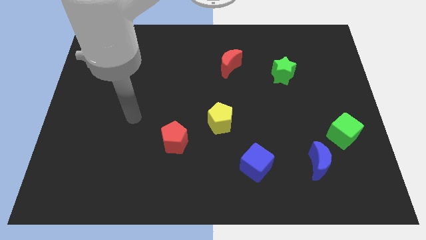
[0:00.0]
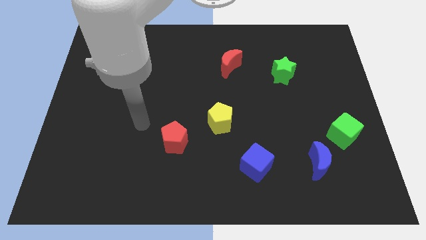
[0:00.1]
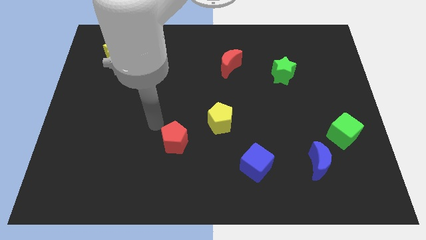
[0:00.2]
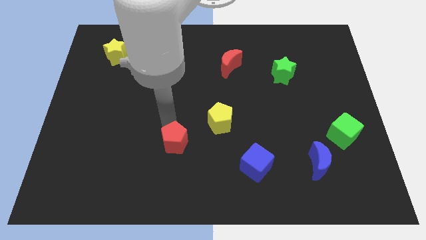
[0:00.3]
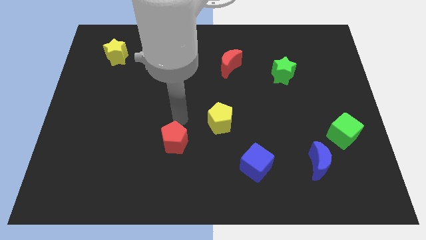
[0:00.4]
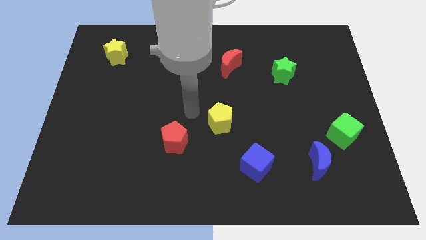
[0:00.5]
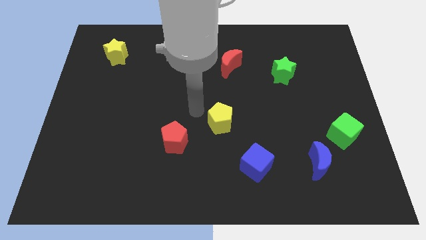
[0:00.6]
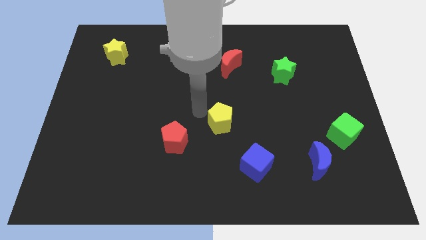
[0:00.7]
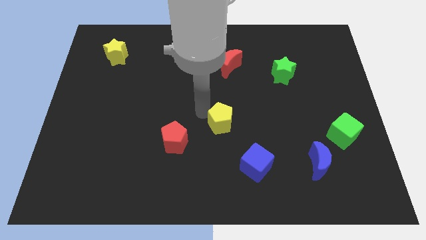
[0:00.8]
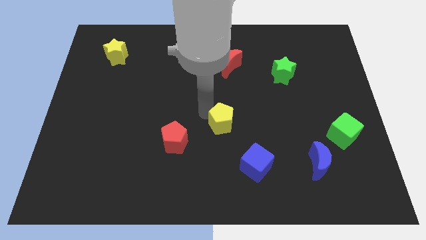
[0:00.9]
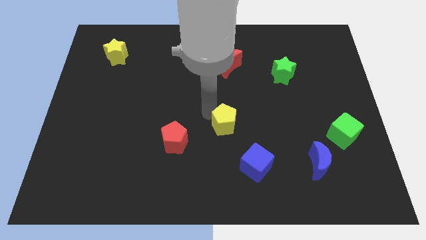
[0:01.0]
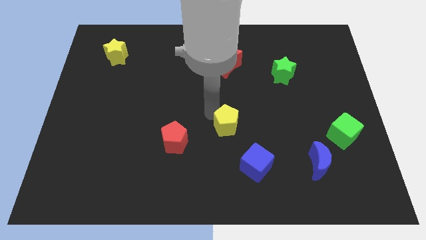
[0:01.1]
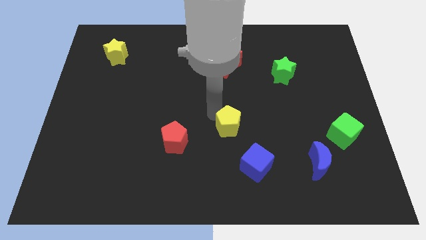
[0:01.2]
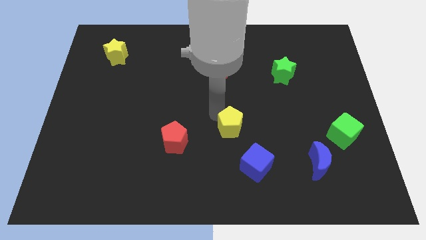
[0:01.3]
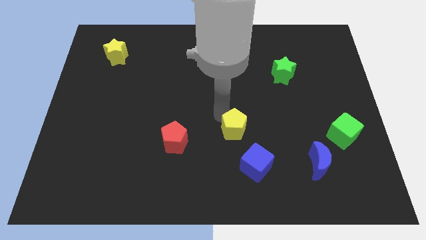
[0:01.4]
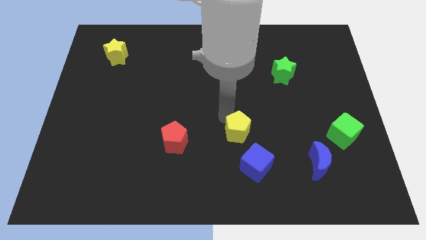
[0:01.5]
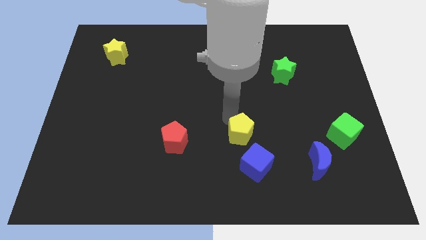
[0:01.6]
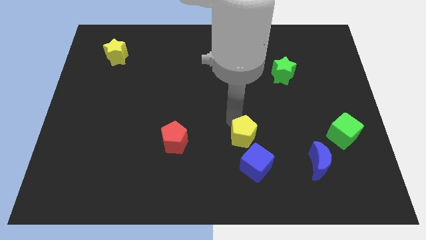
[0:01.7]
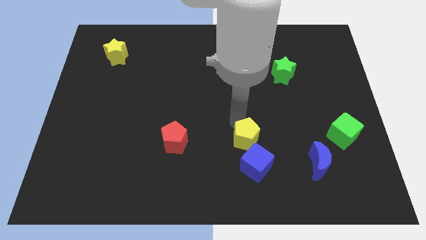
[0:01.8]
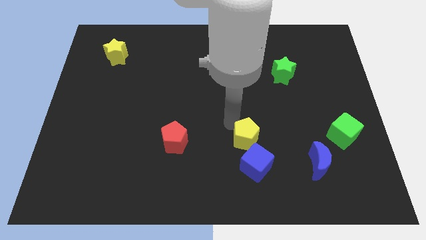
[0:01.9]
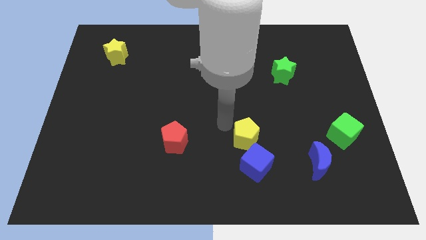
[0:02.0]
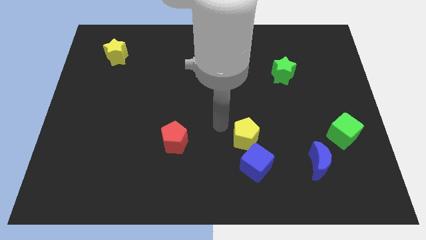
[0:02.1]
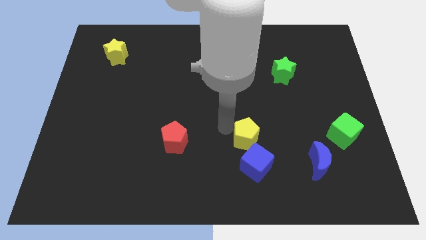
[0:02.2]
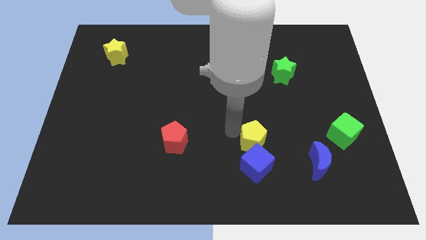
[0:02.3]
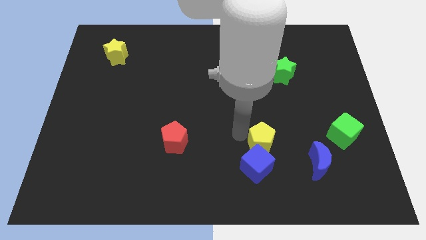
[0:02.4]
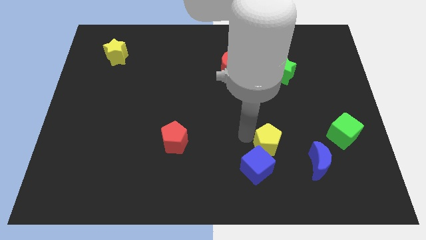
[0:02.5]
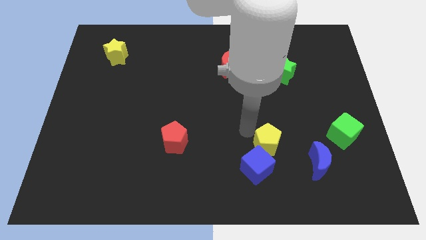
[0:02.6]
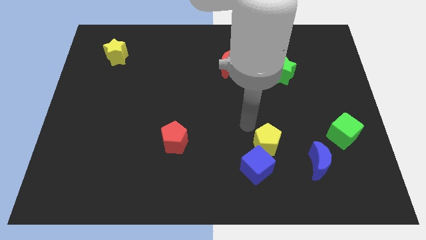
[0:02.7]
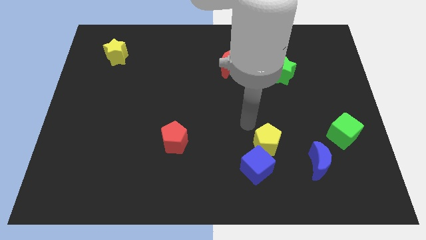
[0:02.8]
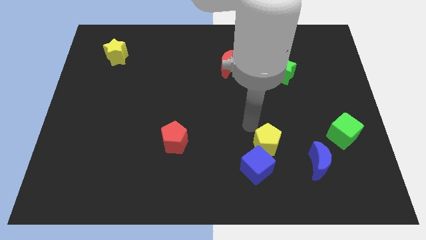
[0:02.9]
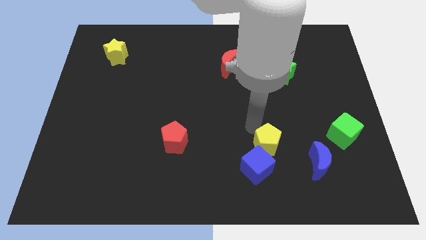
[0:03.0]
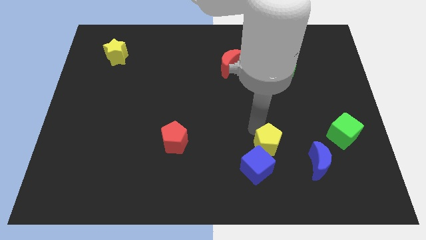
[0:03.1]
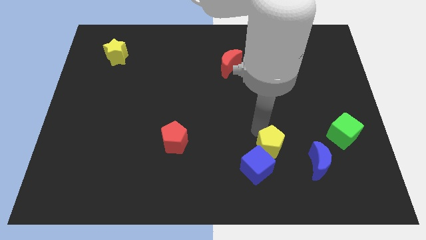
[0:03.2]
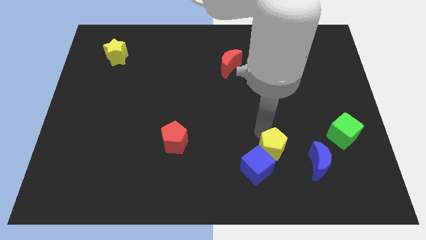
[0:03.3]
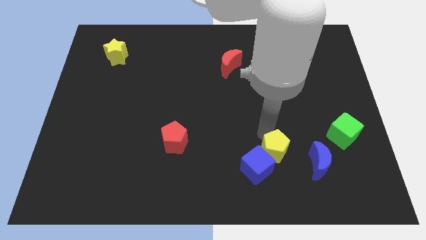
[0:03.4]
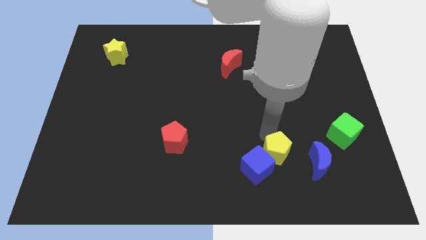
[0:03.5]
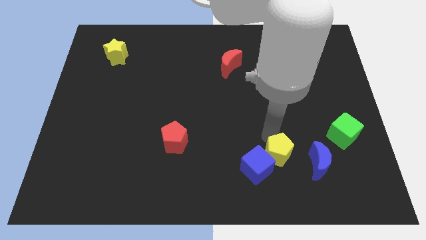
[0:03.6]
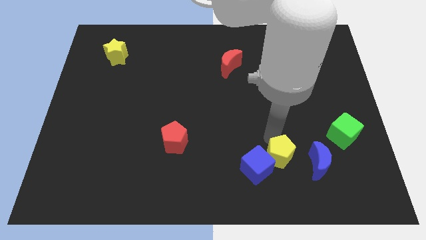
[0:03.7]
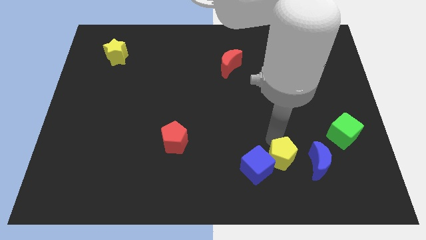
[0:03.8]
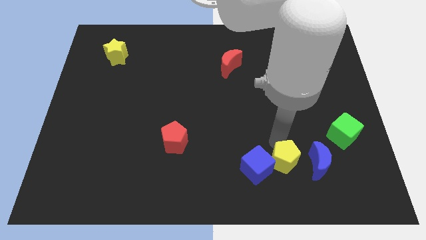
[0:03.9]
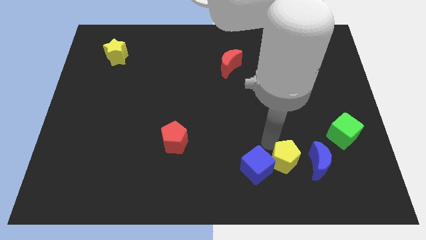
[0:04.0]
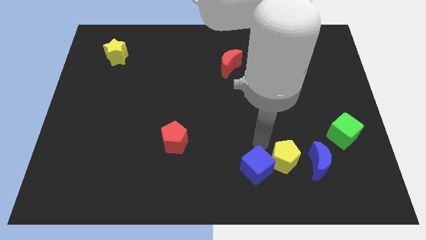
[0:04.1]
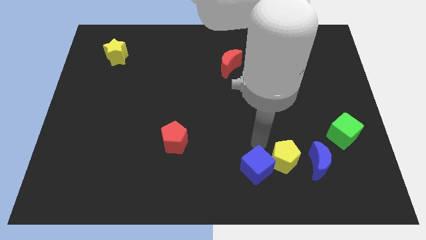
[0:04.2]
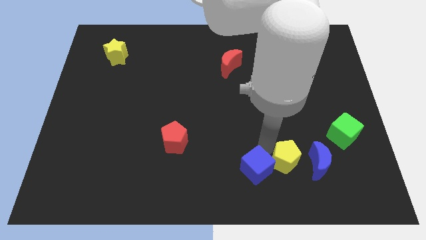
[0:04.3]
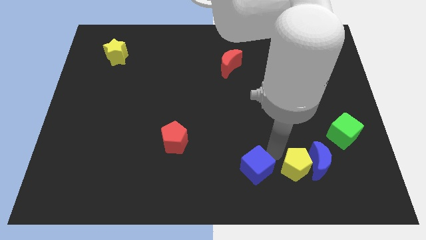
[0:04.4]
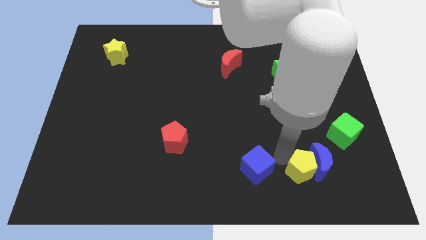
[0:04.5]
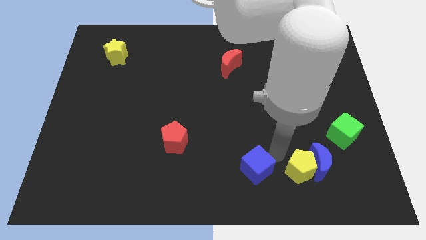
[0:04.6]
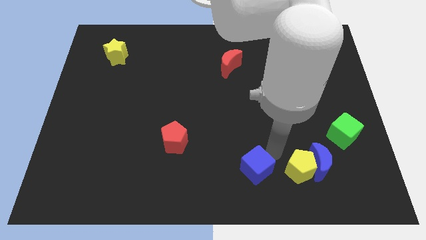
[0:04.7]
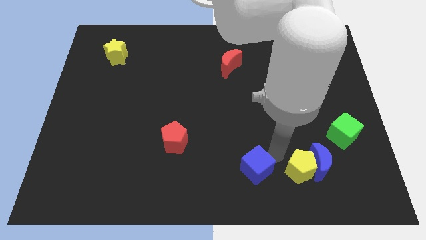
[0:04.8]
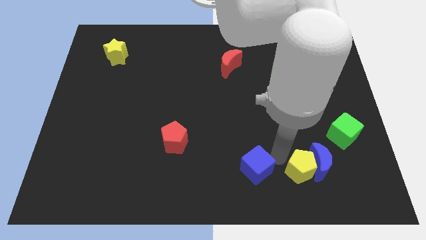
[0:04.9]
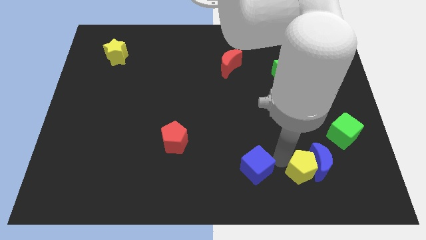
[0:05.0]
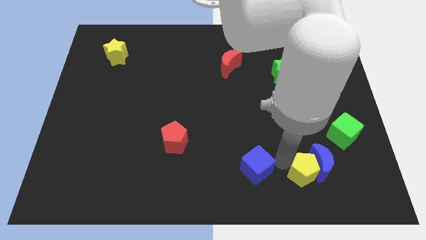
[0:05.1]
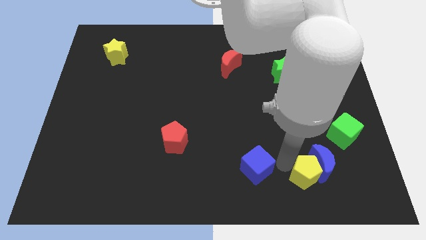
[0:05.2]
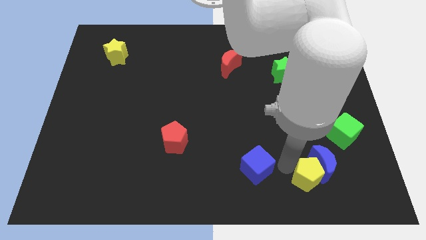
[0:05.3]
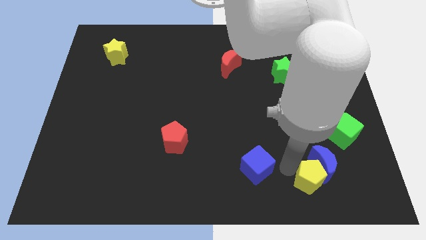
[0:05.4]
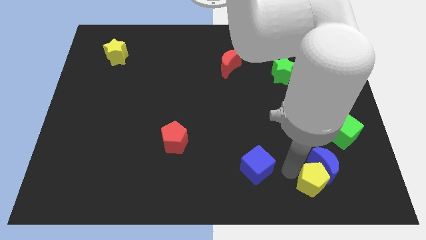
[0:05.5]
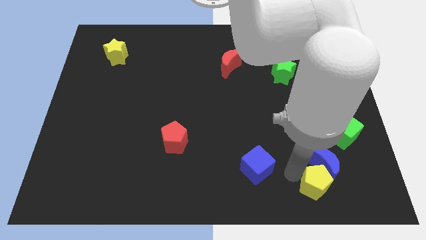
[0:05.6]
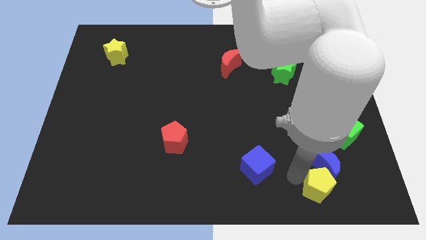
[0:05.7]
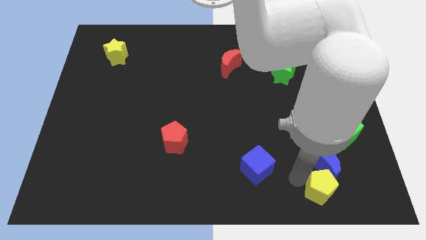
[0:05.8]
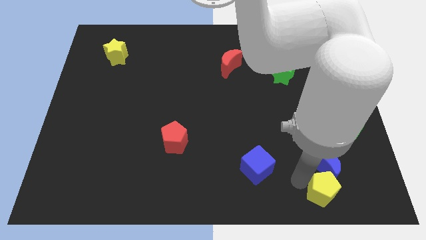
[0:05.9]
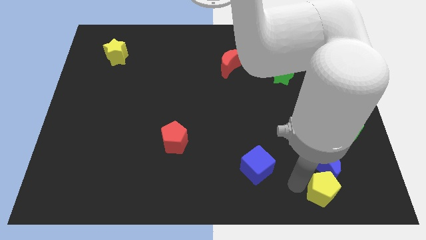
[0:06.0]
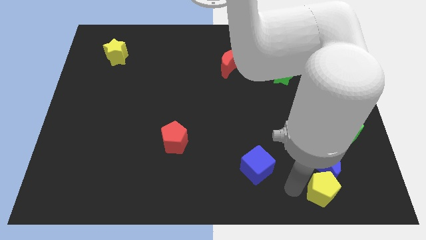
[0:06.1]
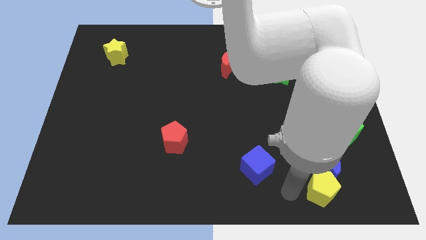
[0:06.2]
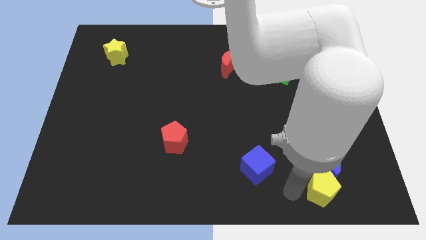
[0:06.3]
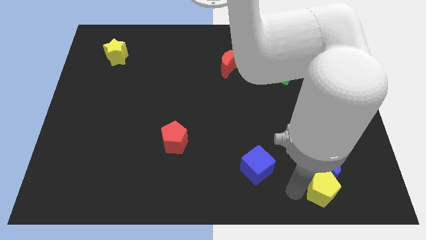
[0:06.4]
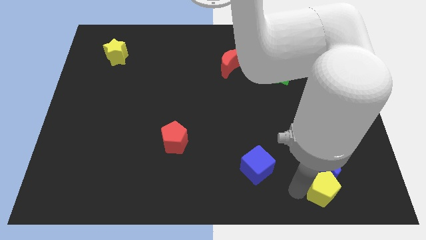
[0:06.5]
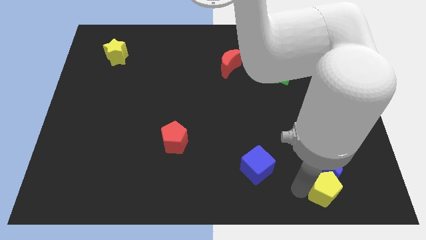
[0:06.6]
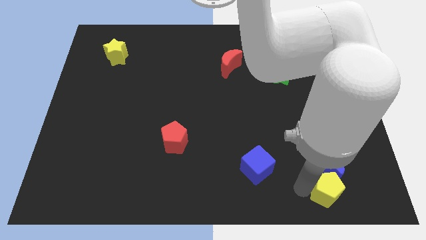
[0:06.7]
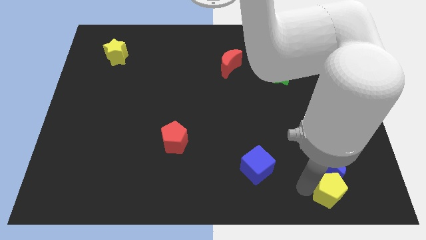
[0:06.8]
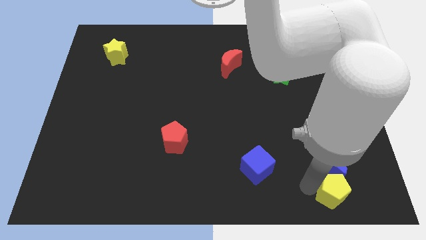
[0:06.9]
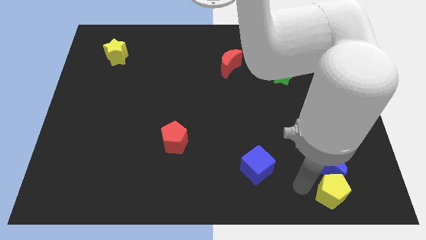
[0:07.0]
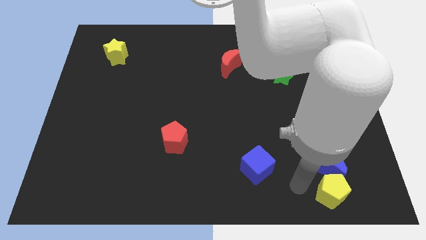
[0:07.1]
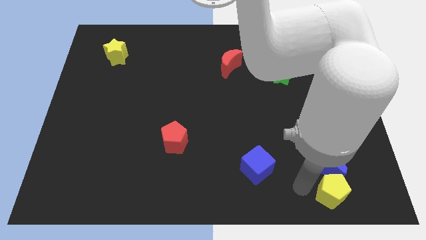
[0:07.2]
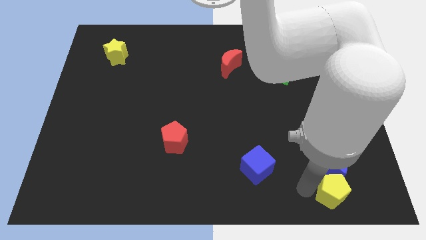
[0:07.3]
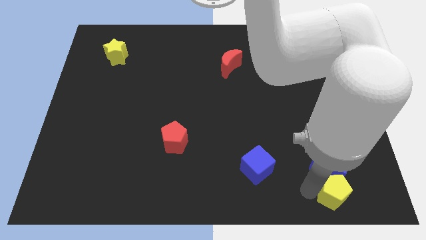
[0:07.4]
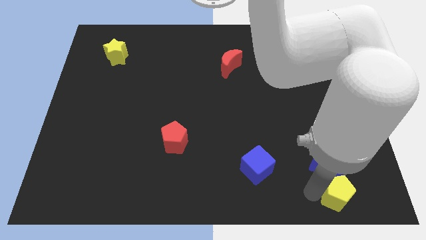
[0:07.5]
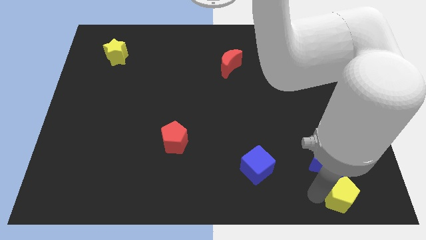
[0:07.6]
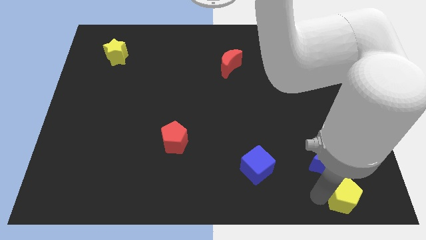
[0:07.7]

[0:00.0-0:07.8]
push the yellow pentagon to the bottom right
